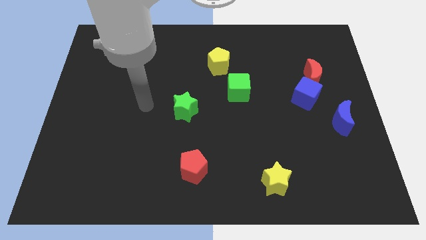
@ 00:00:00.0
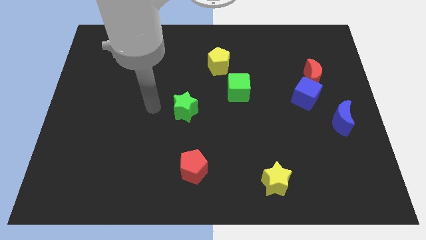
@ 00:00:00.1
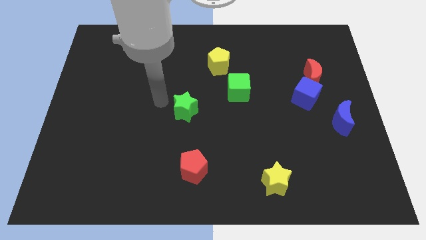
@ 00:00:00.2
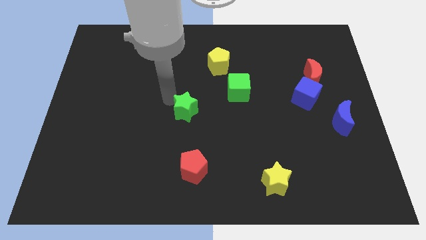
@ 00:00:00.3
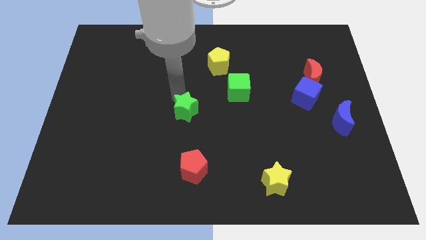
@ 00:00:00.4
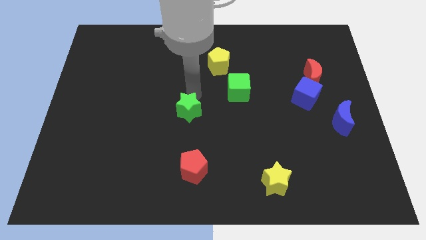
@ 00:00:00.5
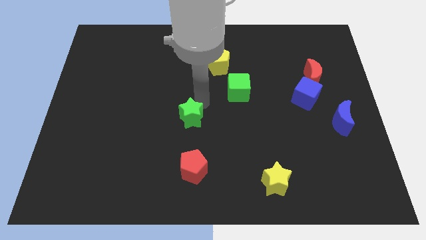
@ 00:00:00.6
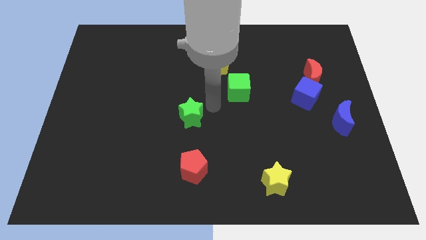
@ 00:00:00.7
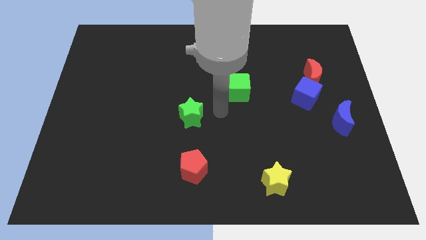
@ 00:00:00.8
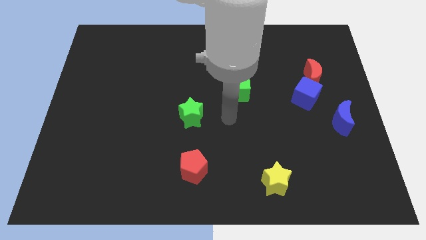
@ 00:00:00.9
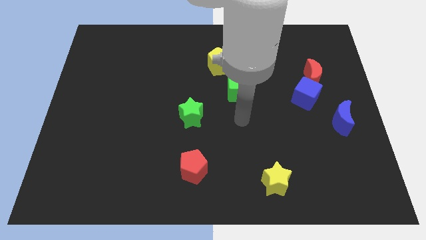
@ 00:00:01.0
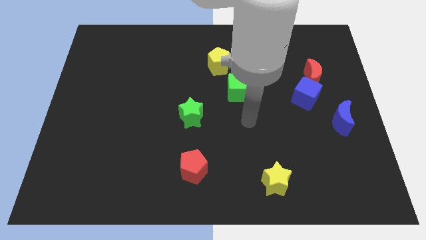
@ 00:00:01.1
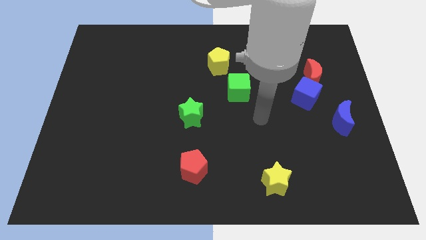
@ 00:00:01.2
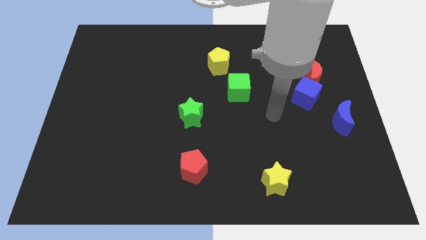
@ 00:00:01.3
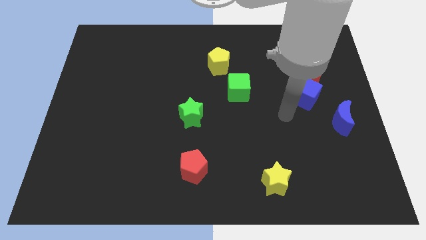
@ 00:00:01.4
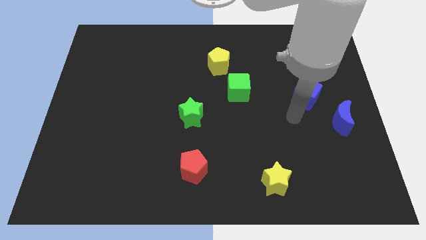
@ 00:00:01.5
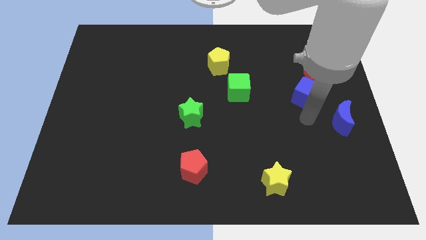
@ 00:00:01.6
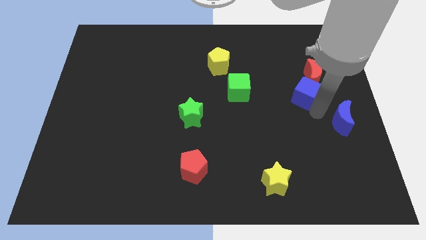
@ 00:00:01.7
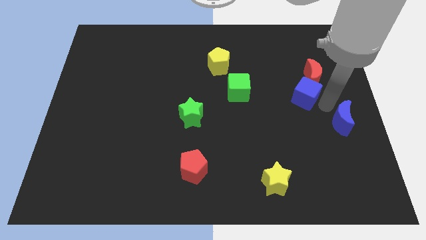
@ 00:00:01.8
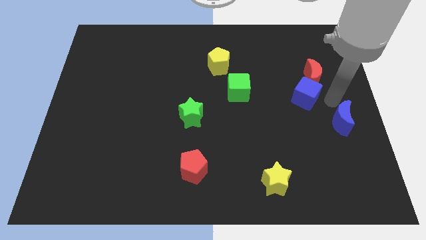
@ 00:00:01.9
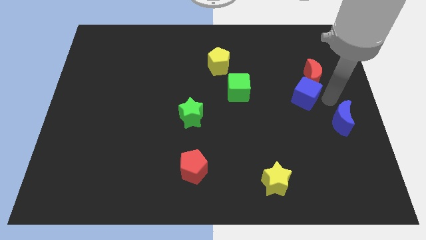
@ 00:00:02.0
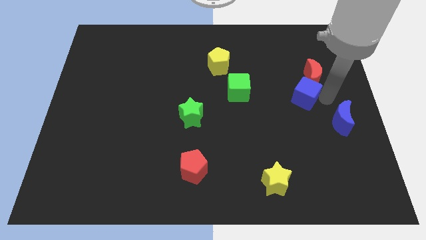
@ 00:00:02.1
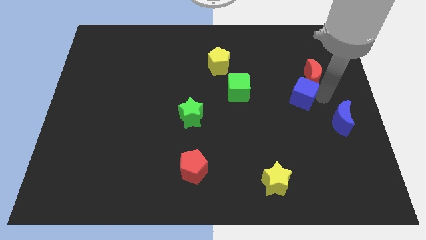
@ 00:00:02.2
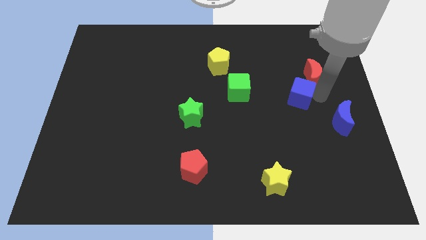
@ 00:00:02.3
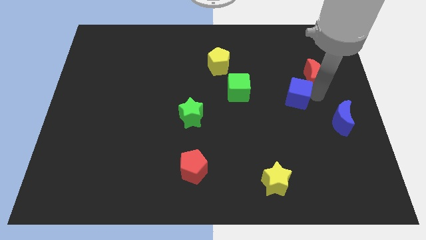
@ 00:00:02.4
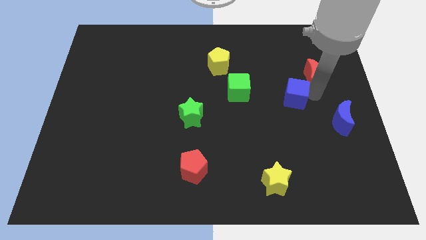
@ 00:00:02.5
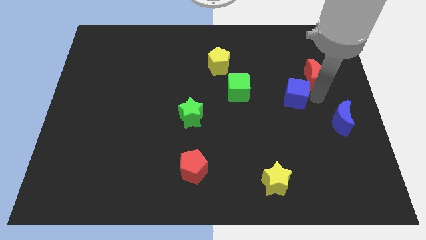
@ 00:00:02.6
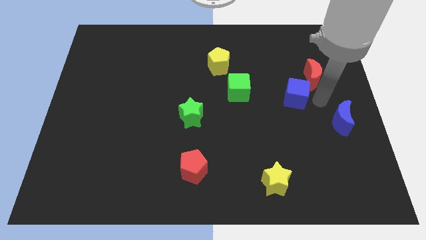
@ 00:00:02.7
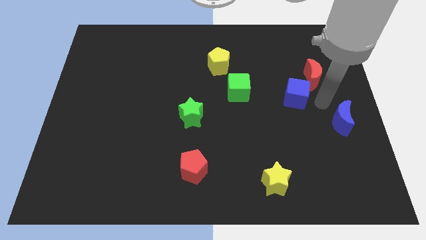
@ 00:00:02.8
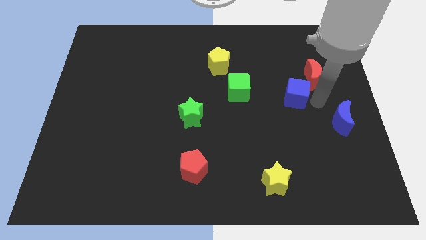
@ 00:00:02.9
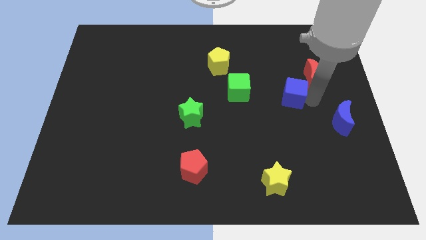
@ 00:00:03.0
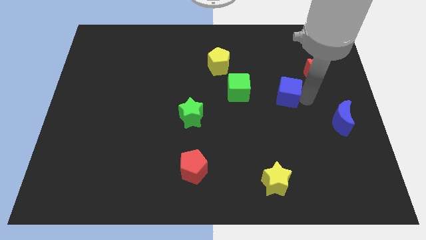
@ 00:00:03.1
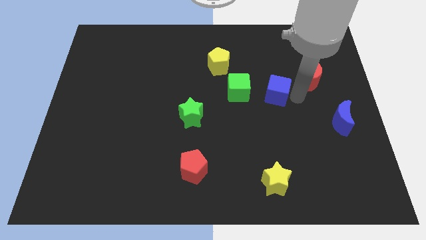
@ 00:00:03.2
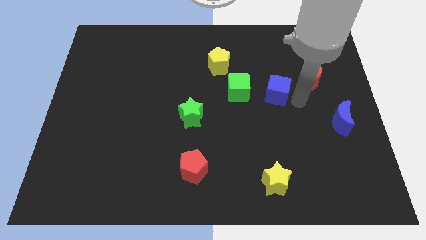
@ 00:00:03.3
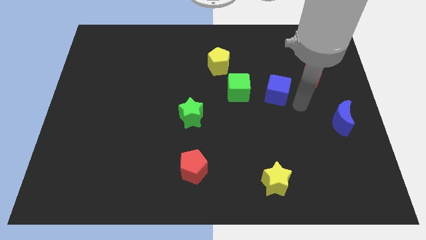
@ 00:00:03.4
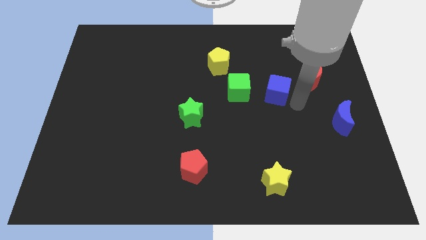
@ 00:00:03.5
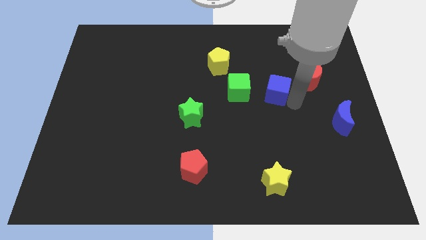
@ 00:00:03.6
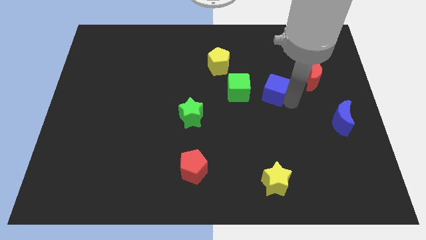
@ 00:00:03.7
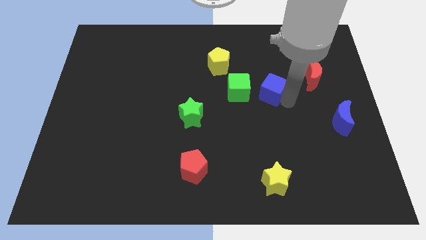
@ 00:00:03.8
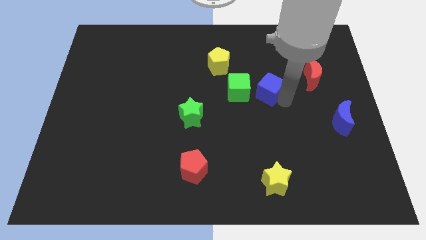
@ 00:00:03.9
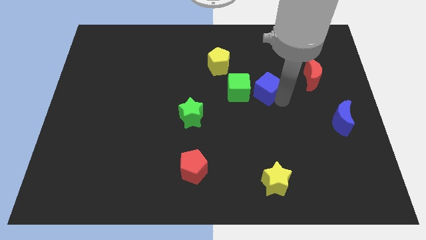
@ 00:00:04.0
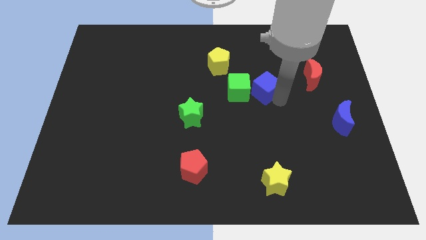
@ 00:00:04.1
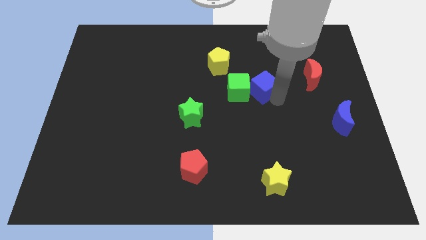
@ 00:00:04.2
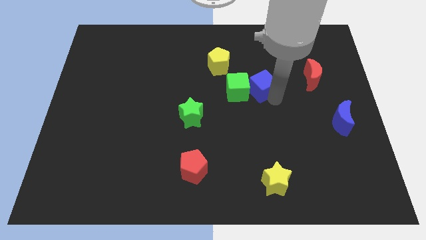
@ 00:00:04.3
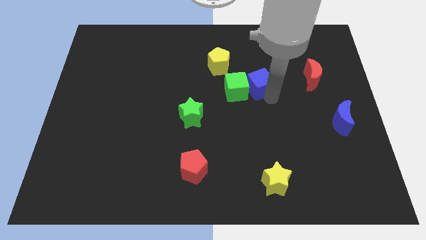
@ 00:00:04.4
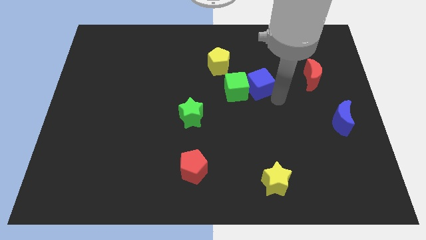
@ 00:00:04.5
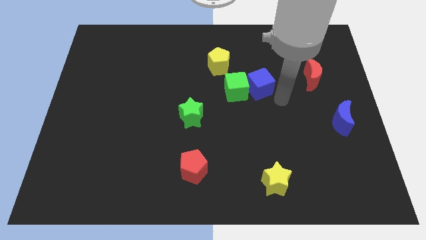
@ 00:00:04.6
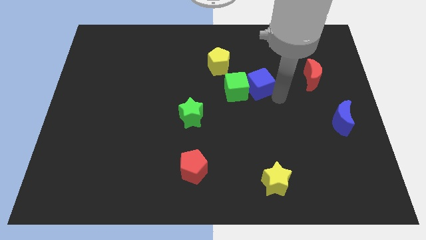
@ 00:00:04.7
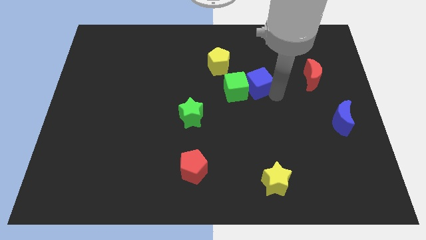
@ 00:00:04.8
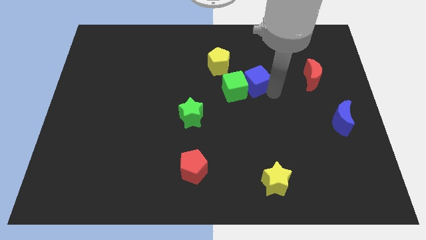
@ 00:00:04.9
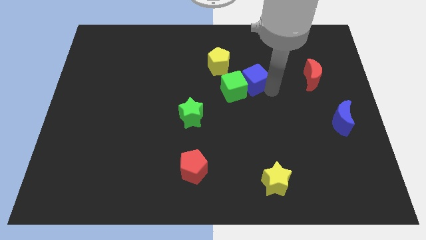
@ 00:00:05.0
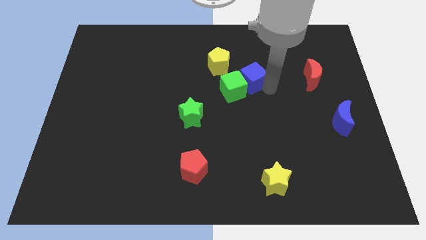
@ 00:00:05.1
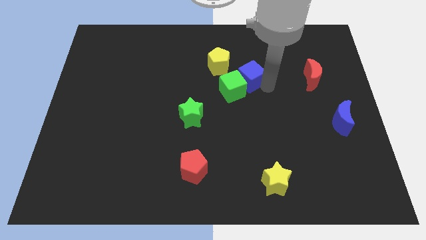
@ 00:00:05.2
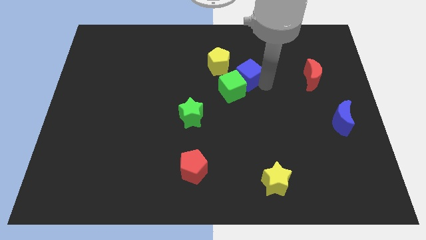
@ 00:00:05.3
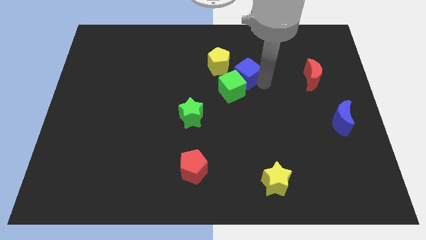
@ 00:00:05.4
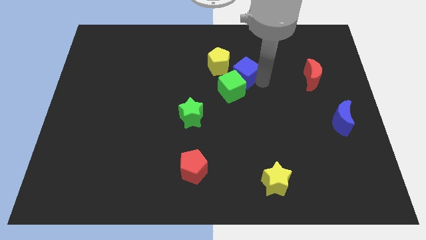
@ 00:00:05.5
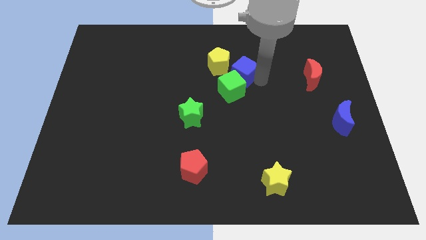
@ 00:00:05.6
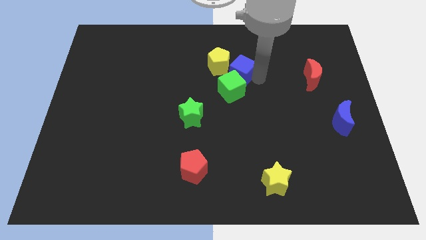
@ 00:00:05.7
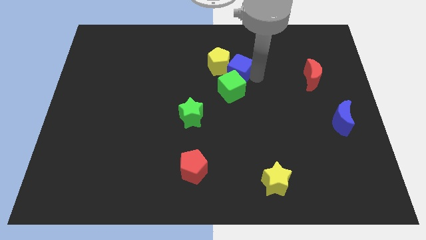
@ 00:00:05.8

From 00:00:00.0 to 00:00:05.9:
slide the blue cube to the yellow pentagon

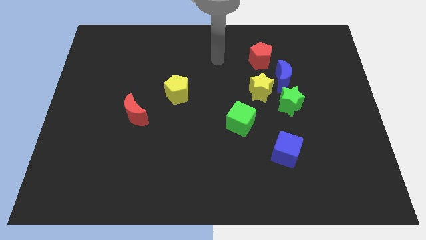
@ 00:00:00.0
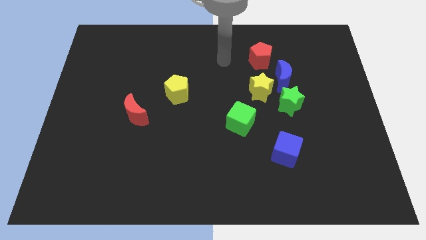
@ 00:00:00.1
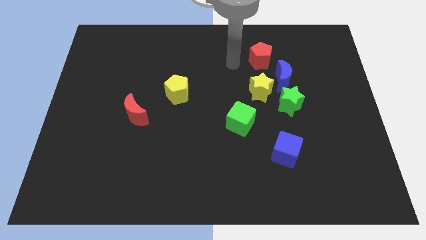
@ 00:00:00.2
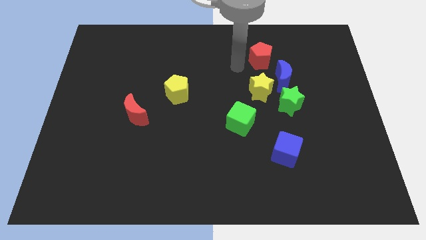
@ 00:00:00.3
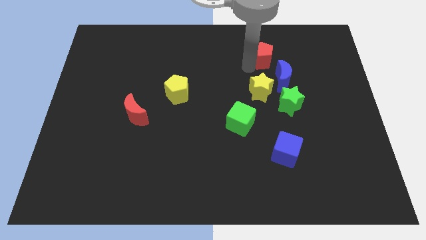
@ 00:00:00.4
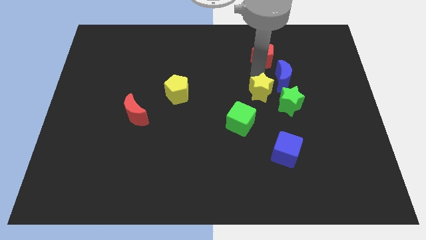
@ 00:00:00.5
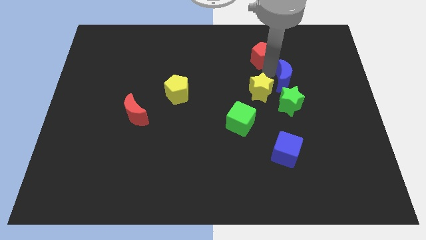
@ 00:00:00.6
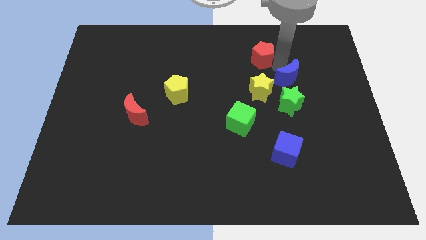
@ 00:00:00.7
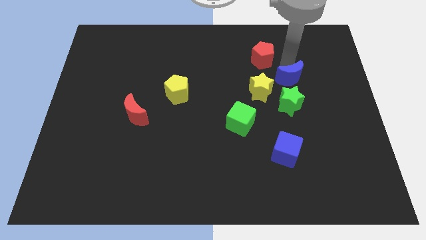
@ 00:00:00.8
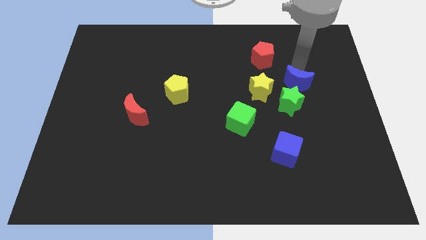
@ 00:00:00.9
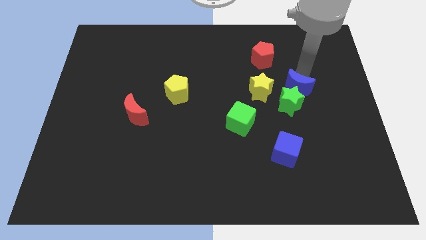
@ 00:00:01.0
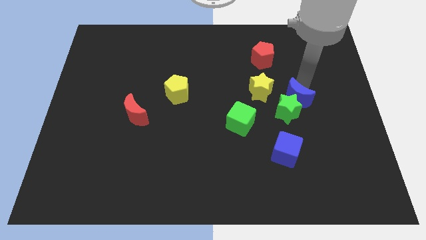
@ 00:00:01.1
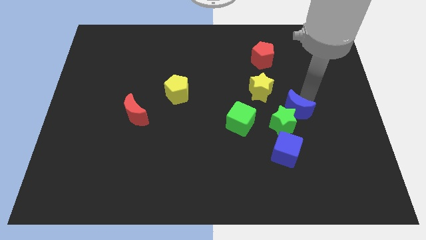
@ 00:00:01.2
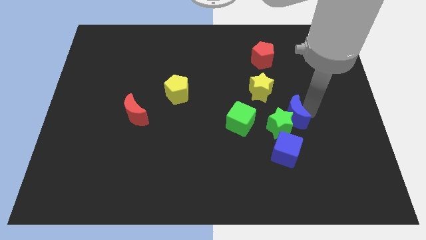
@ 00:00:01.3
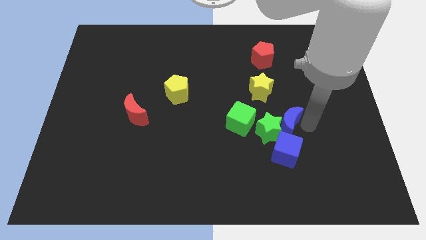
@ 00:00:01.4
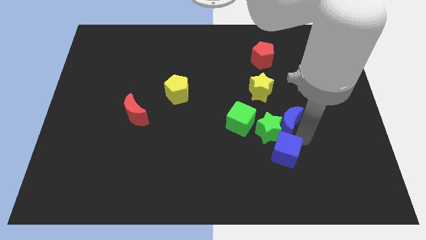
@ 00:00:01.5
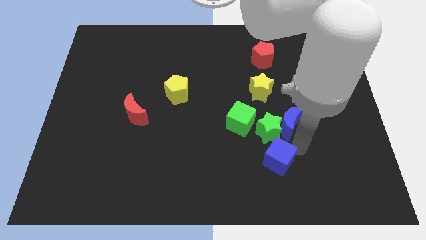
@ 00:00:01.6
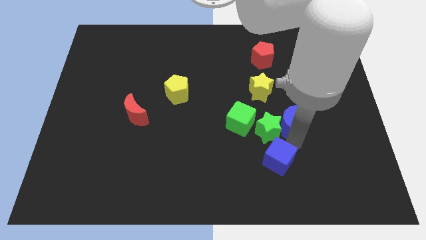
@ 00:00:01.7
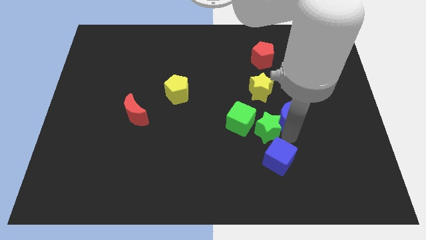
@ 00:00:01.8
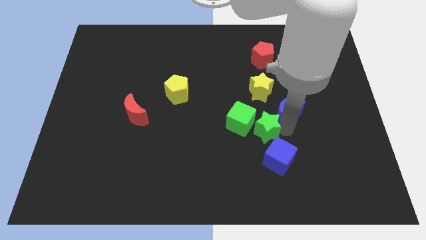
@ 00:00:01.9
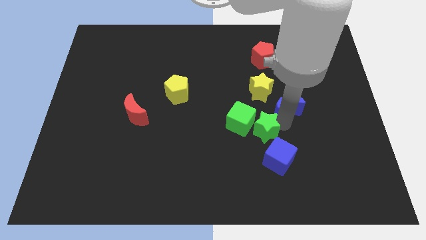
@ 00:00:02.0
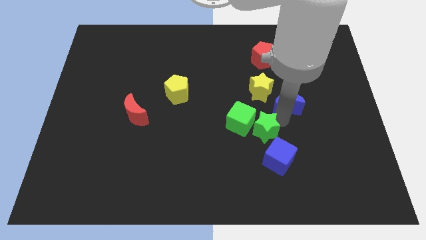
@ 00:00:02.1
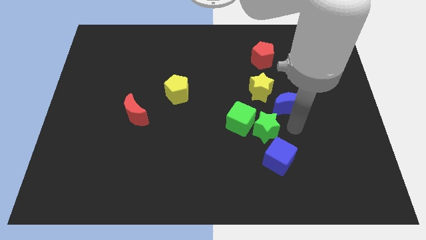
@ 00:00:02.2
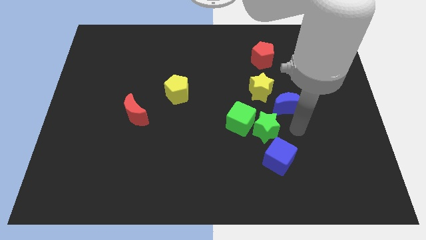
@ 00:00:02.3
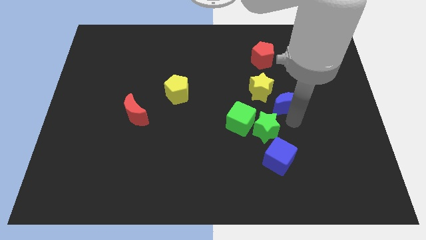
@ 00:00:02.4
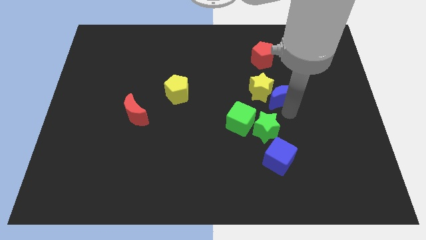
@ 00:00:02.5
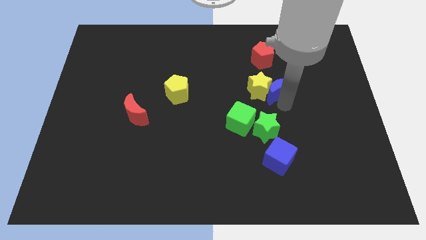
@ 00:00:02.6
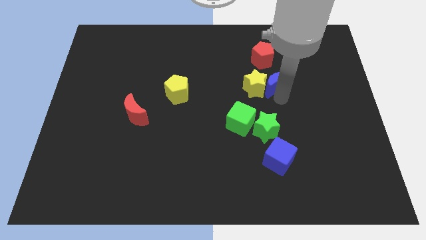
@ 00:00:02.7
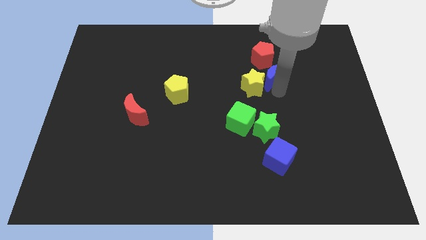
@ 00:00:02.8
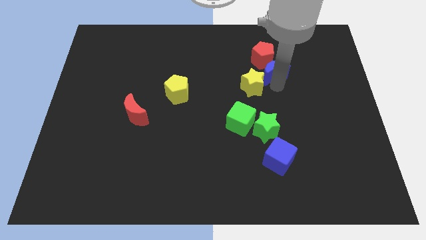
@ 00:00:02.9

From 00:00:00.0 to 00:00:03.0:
push the blue moon next to the red pentagon
